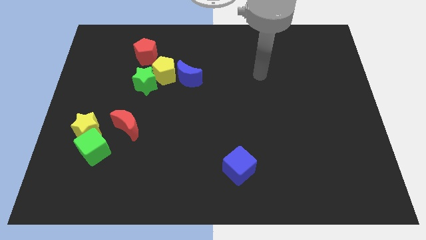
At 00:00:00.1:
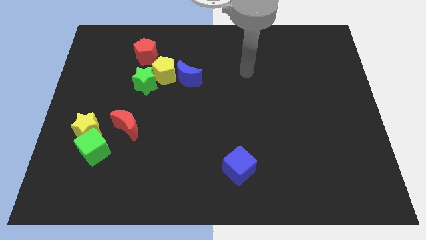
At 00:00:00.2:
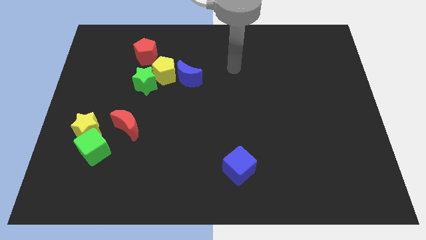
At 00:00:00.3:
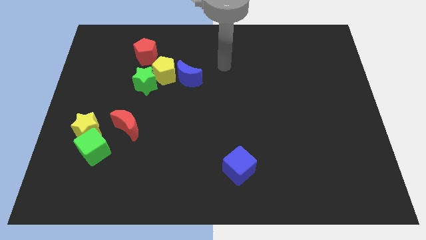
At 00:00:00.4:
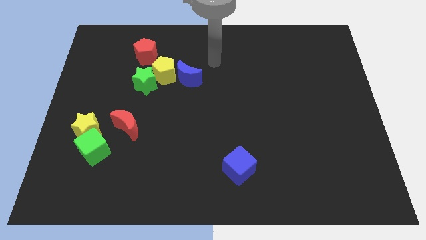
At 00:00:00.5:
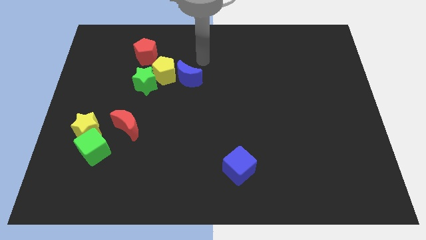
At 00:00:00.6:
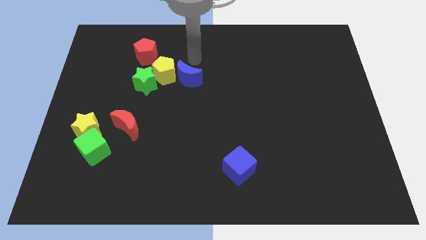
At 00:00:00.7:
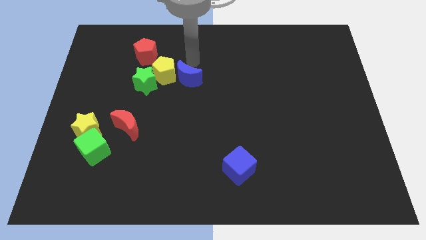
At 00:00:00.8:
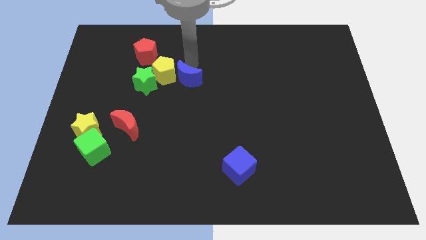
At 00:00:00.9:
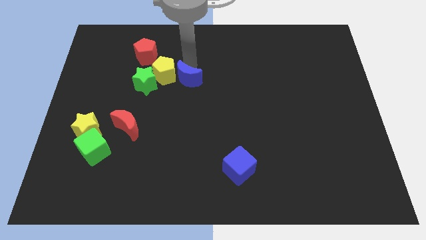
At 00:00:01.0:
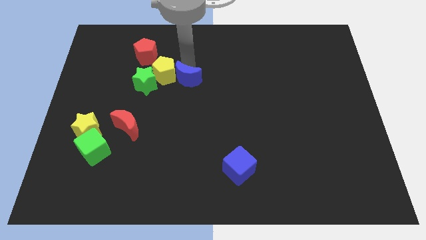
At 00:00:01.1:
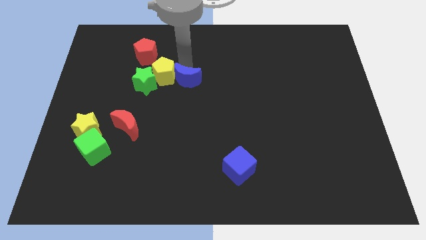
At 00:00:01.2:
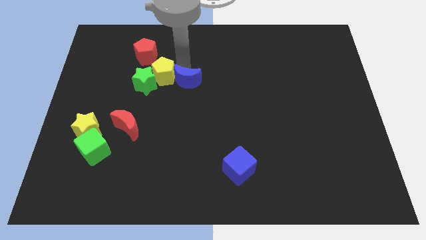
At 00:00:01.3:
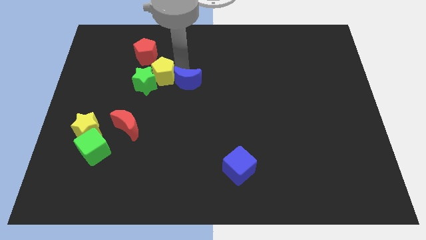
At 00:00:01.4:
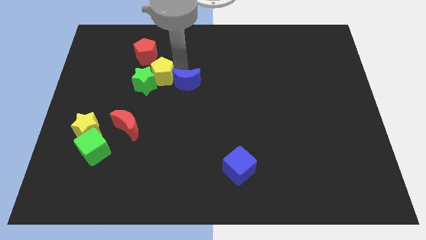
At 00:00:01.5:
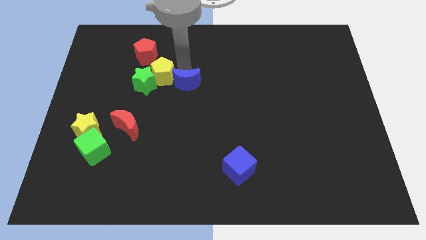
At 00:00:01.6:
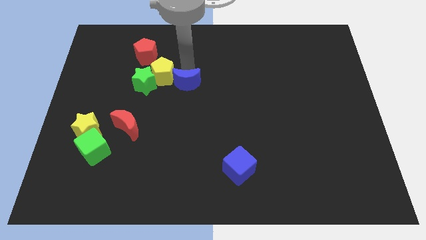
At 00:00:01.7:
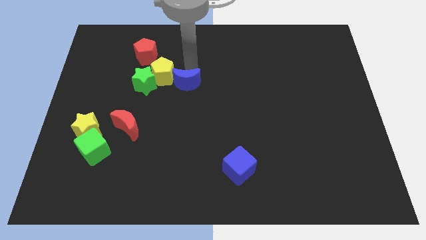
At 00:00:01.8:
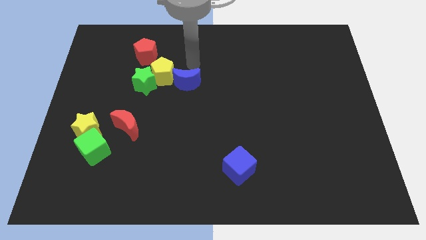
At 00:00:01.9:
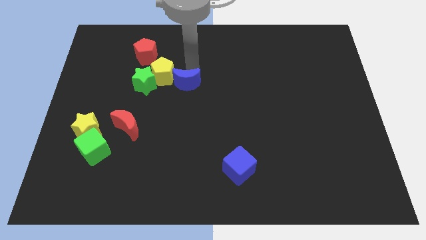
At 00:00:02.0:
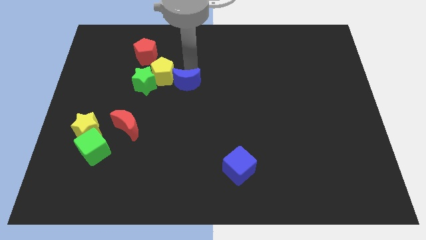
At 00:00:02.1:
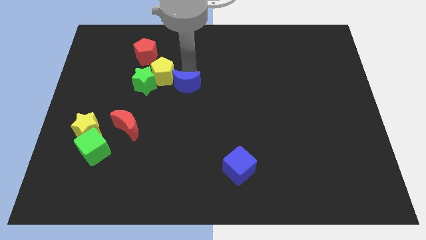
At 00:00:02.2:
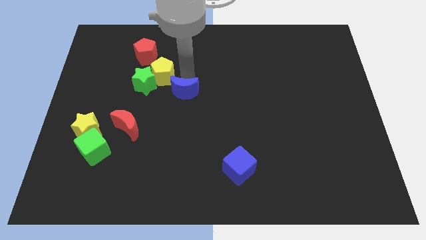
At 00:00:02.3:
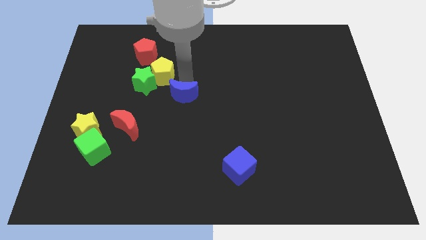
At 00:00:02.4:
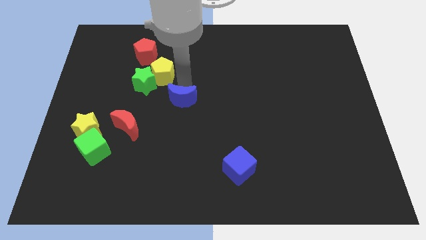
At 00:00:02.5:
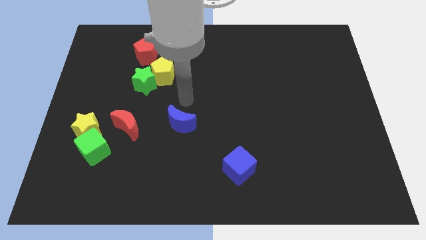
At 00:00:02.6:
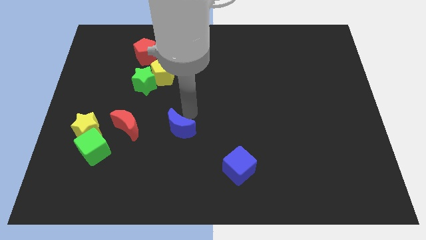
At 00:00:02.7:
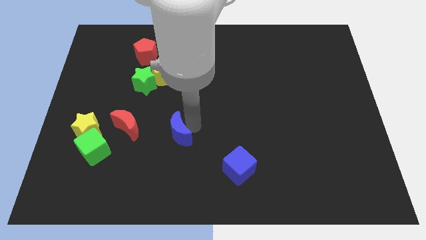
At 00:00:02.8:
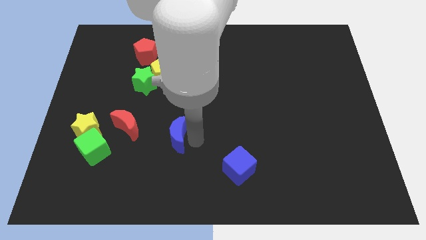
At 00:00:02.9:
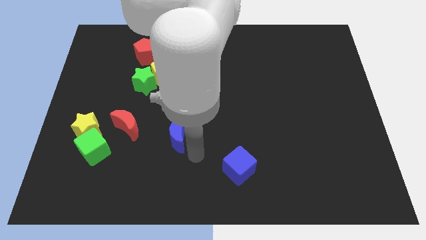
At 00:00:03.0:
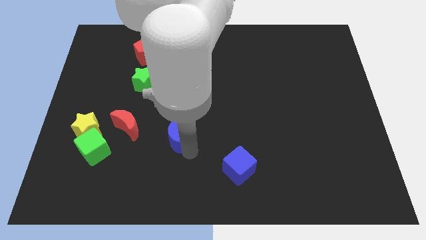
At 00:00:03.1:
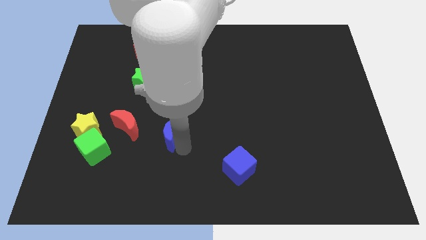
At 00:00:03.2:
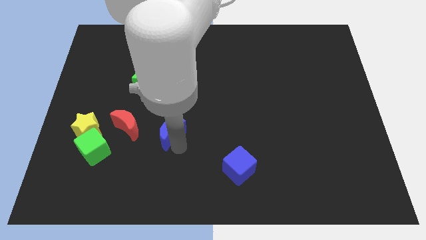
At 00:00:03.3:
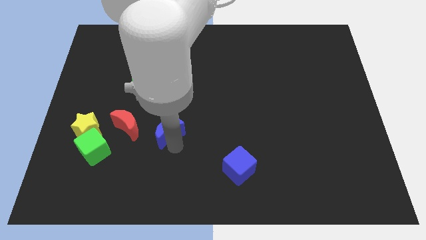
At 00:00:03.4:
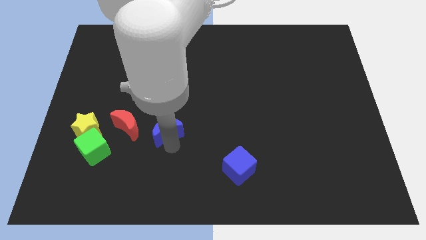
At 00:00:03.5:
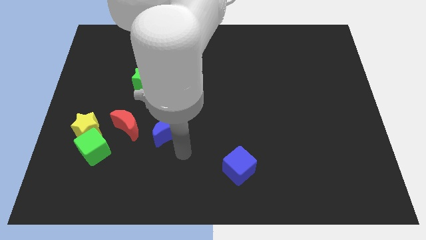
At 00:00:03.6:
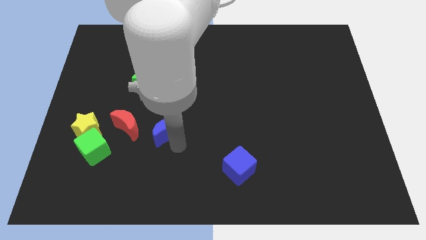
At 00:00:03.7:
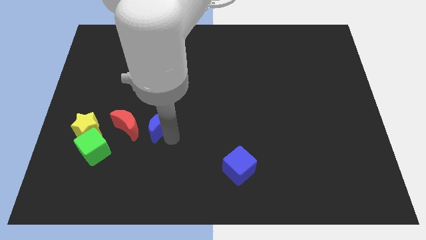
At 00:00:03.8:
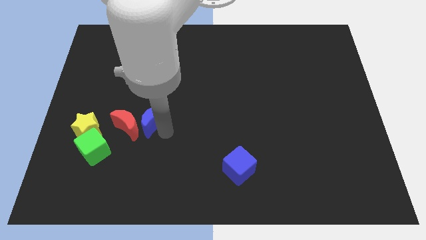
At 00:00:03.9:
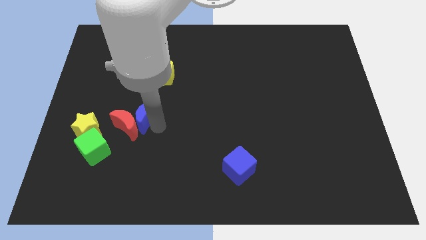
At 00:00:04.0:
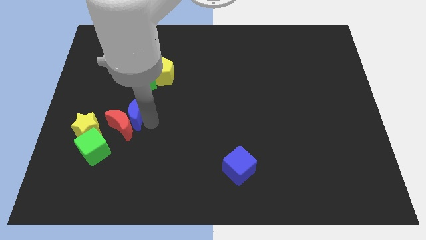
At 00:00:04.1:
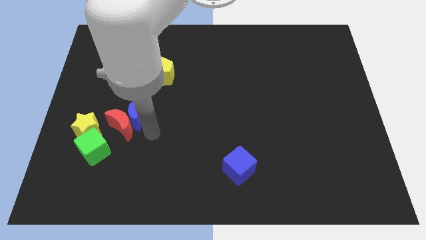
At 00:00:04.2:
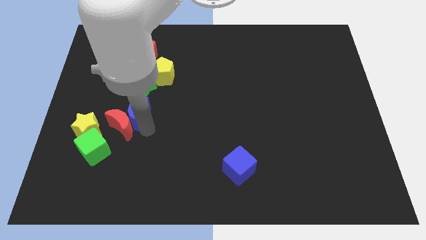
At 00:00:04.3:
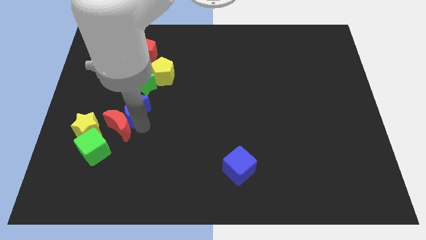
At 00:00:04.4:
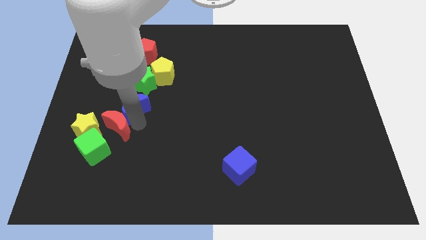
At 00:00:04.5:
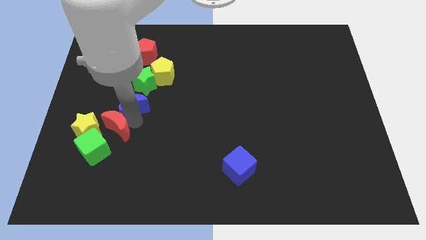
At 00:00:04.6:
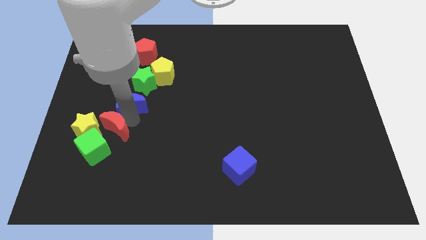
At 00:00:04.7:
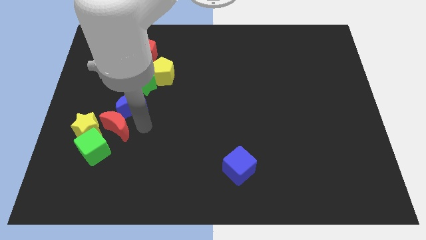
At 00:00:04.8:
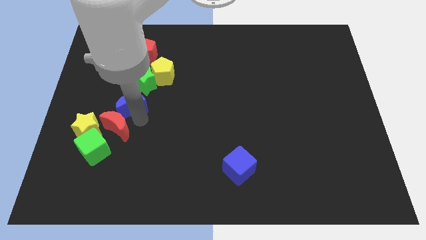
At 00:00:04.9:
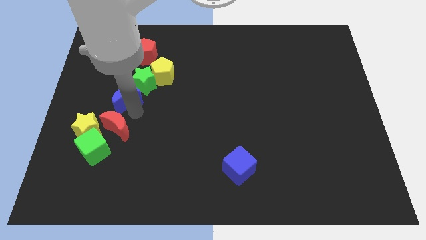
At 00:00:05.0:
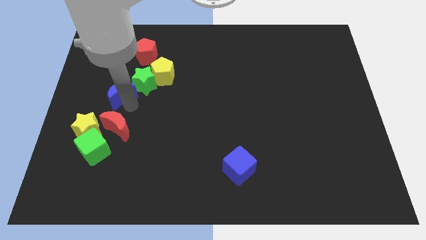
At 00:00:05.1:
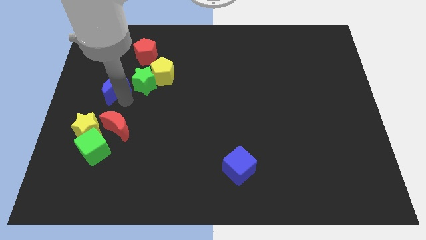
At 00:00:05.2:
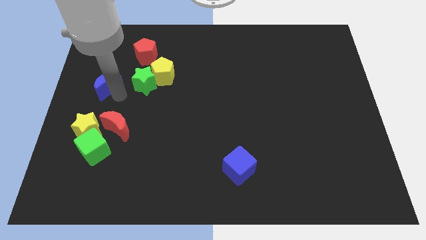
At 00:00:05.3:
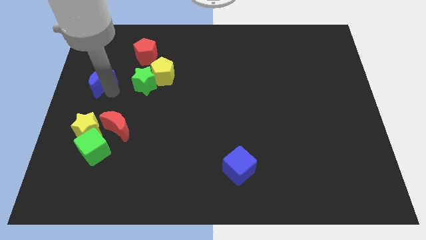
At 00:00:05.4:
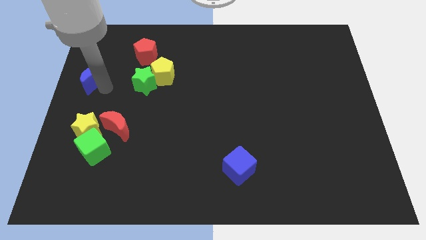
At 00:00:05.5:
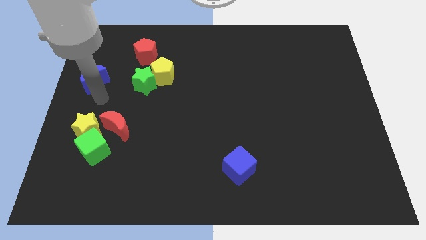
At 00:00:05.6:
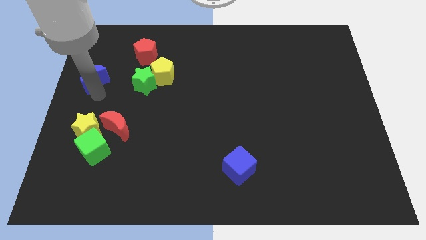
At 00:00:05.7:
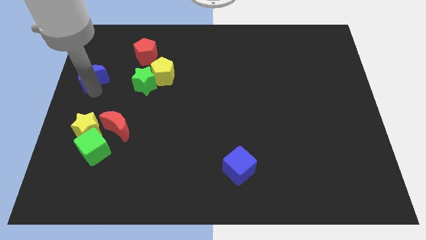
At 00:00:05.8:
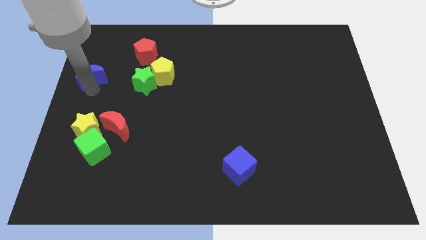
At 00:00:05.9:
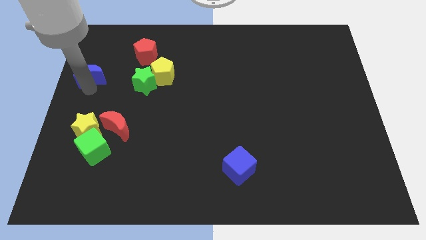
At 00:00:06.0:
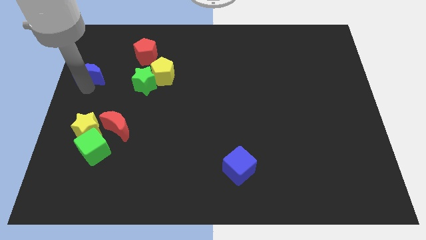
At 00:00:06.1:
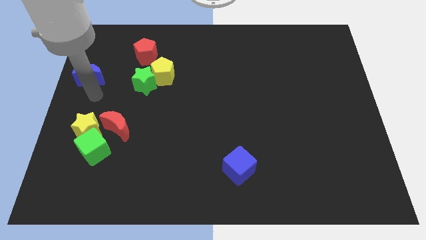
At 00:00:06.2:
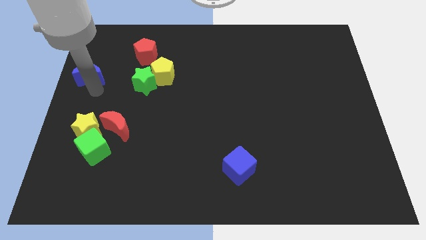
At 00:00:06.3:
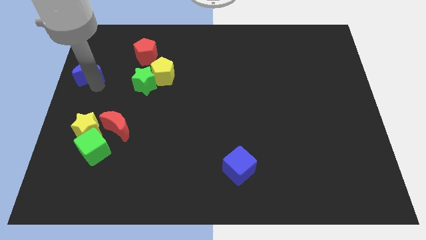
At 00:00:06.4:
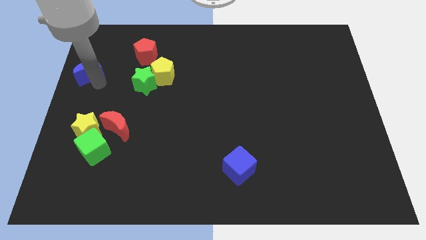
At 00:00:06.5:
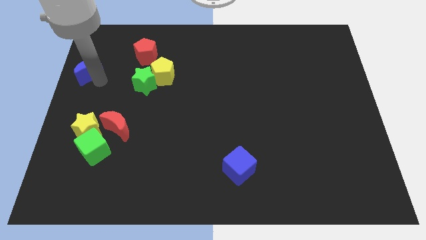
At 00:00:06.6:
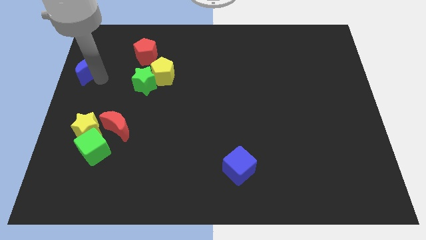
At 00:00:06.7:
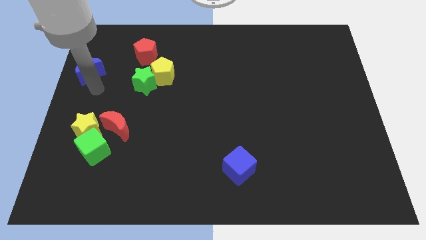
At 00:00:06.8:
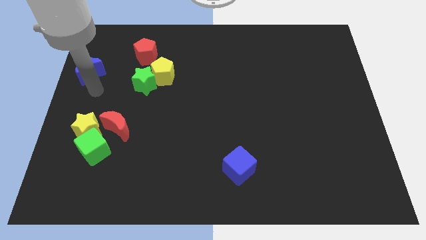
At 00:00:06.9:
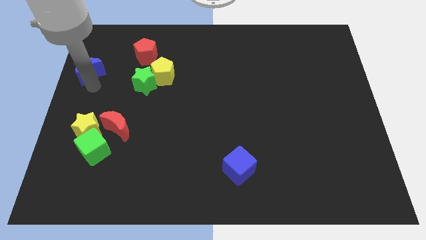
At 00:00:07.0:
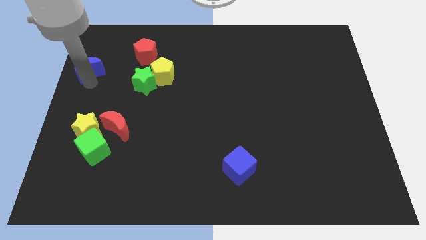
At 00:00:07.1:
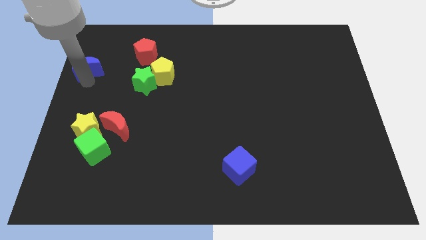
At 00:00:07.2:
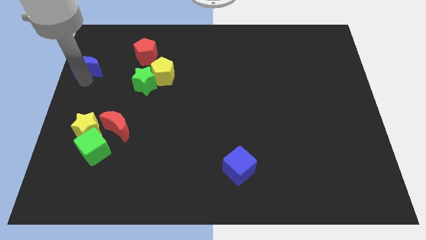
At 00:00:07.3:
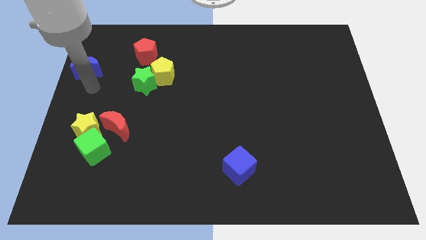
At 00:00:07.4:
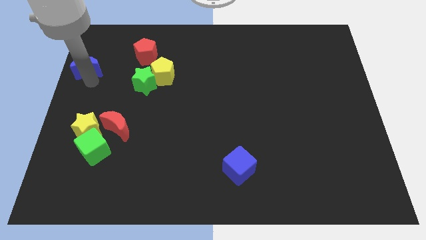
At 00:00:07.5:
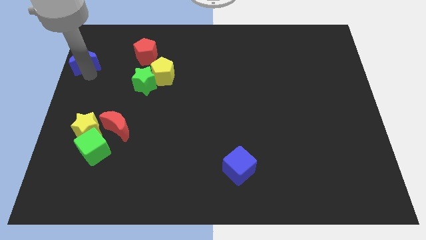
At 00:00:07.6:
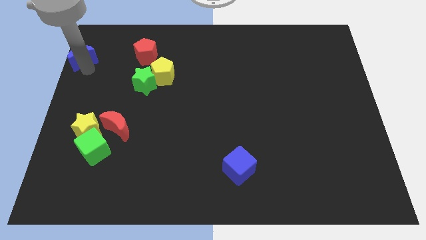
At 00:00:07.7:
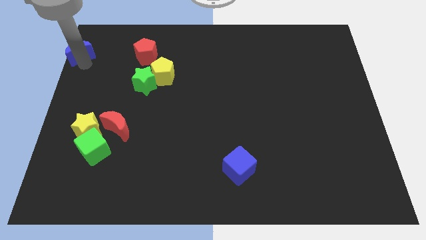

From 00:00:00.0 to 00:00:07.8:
put the blue moon to the top left
